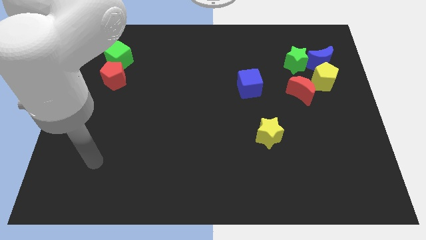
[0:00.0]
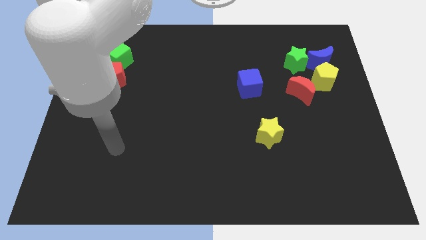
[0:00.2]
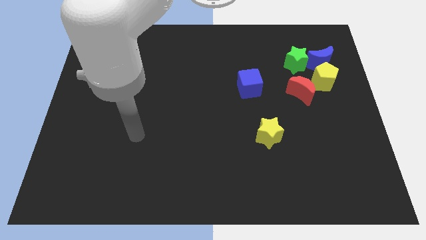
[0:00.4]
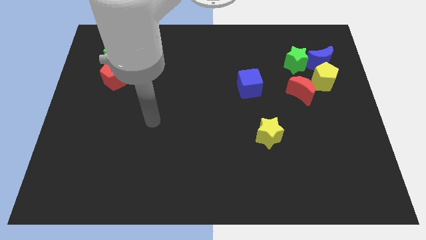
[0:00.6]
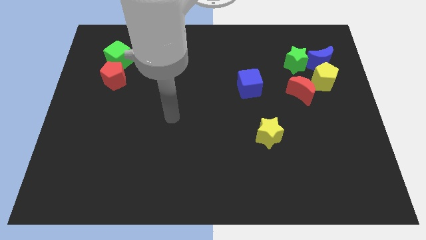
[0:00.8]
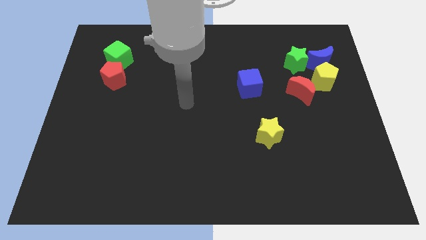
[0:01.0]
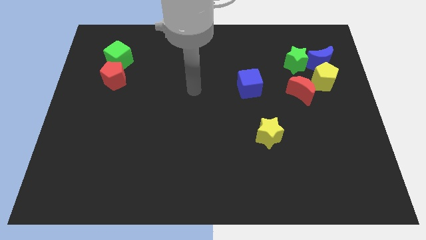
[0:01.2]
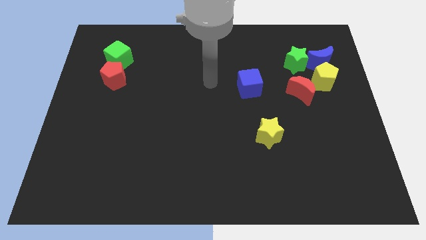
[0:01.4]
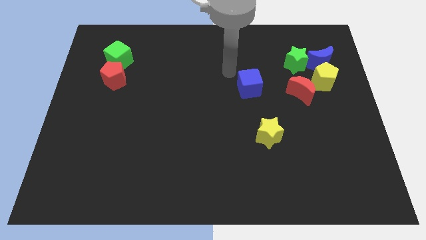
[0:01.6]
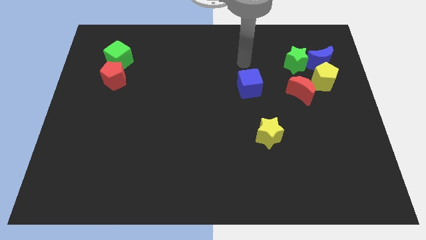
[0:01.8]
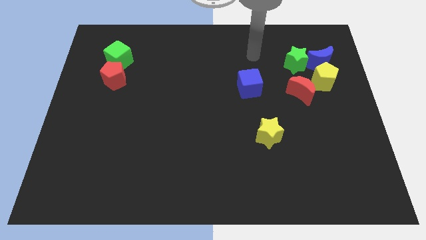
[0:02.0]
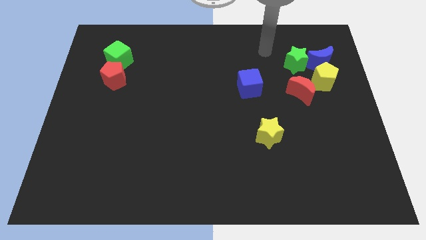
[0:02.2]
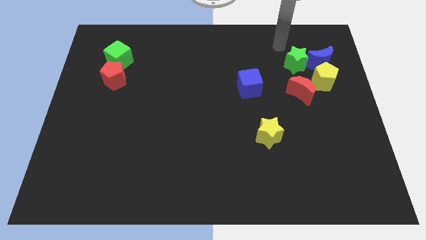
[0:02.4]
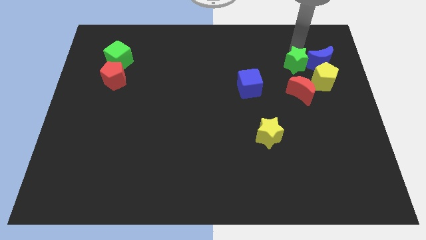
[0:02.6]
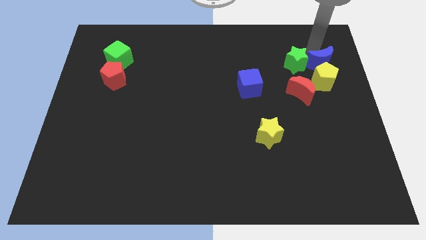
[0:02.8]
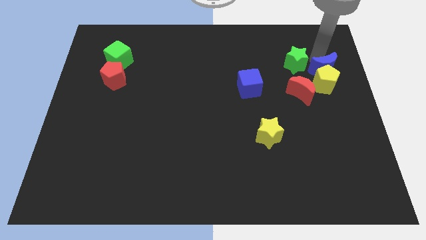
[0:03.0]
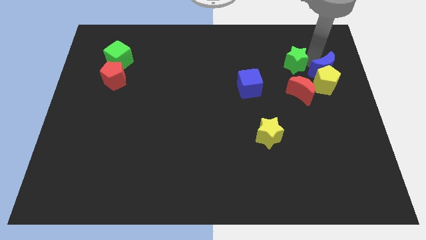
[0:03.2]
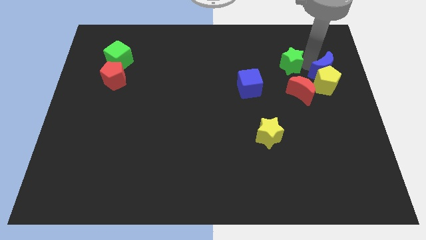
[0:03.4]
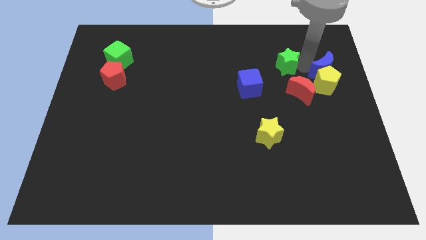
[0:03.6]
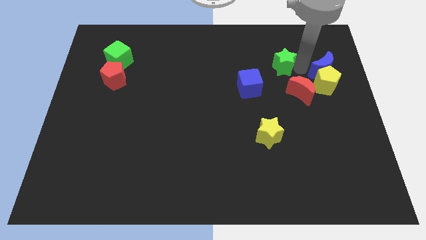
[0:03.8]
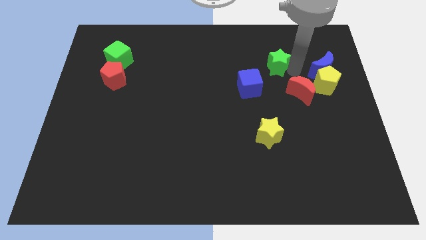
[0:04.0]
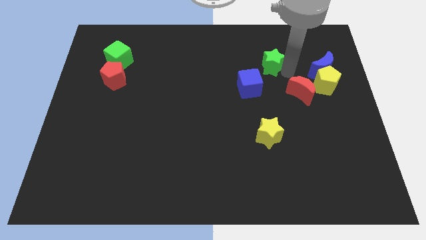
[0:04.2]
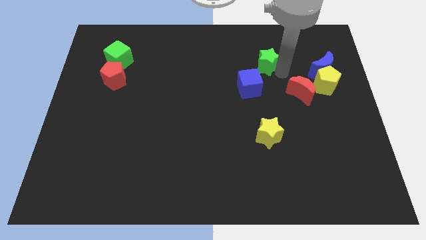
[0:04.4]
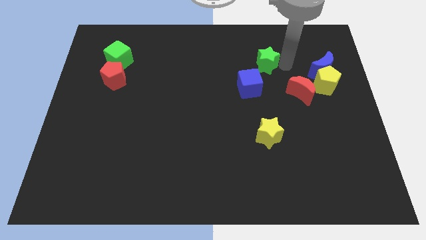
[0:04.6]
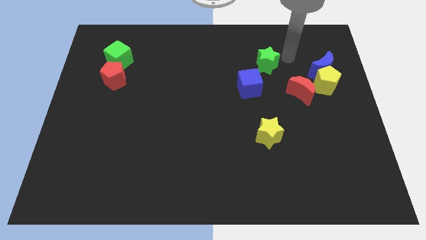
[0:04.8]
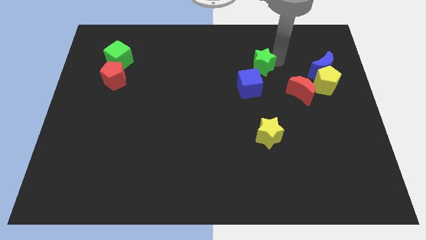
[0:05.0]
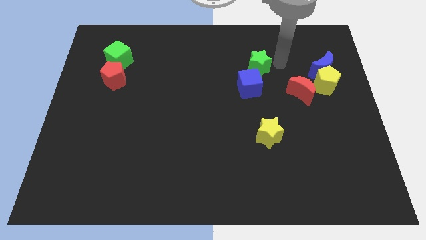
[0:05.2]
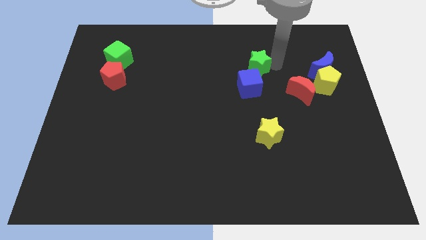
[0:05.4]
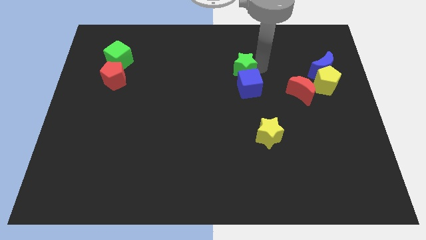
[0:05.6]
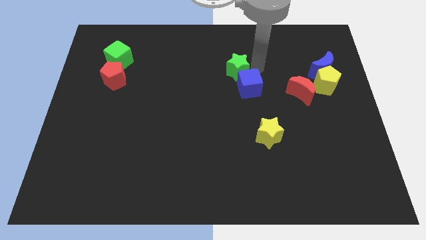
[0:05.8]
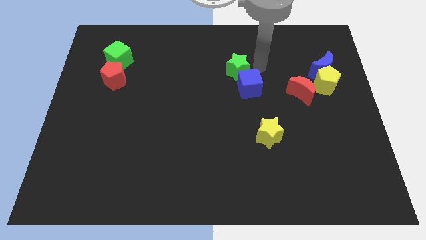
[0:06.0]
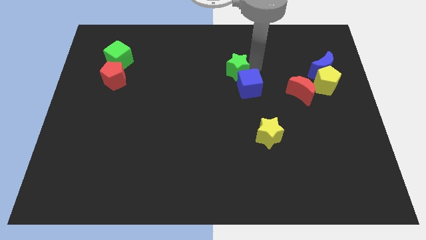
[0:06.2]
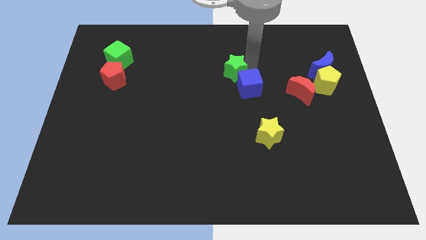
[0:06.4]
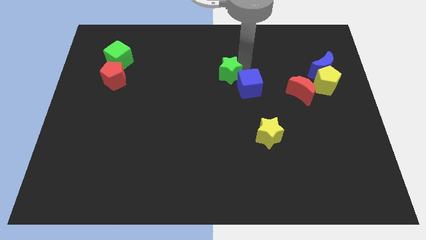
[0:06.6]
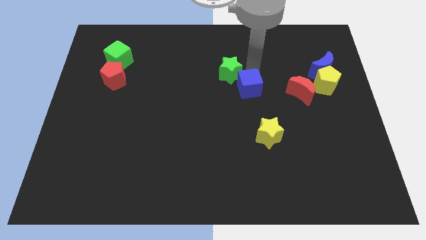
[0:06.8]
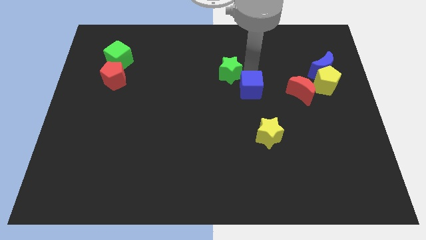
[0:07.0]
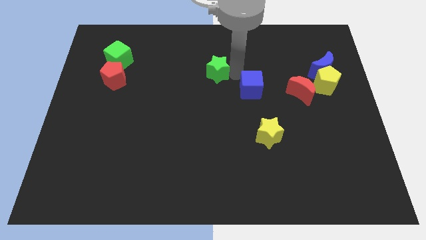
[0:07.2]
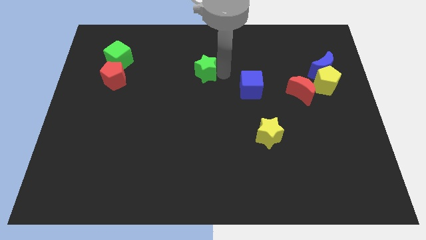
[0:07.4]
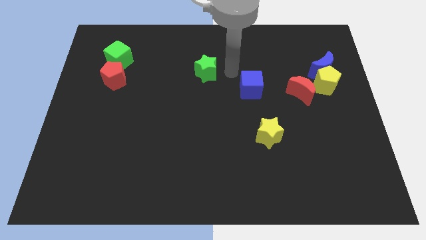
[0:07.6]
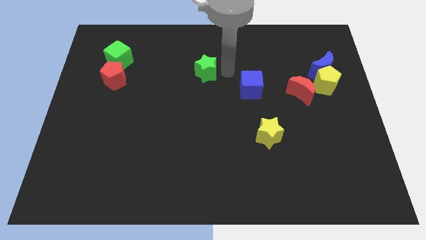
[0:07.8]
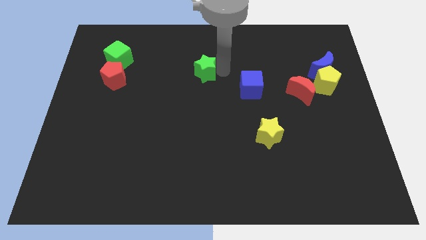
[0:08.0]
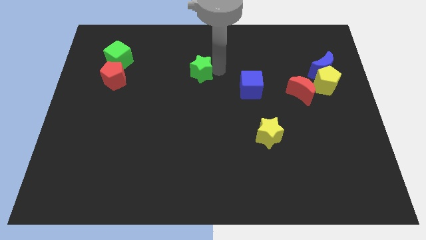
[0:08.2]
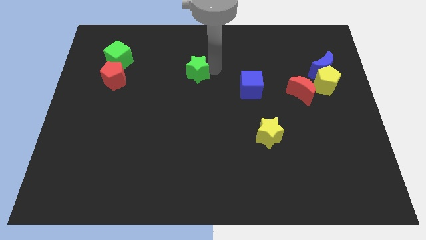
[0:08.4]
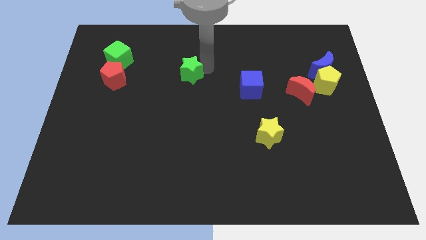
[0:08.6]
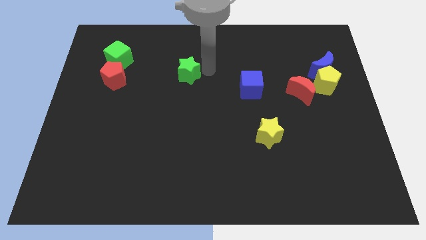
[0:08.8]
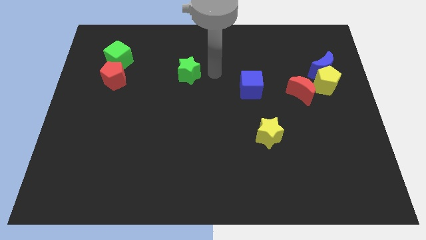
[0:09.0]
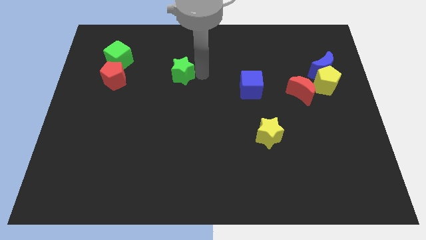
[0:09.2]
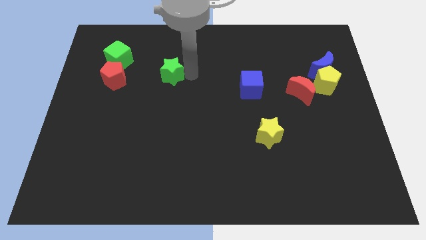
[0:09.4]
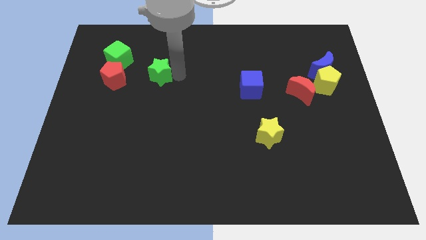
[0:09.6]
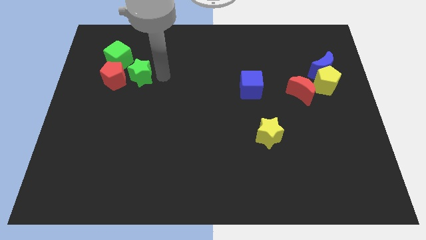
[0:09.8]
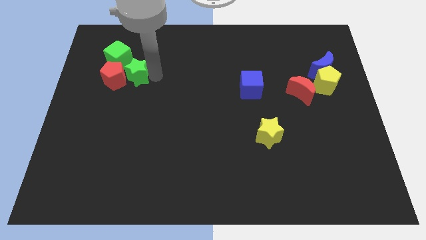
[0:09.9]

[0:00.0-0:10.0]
put the green star next to the red pentagon

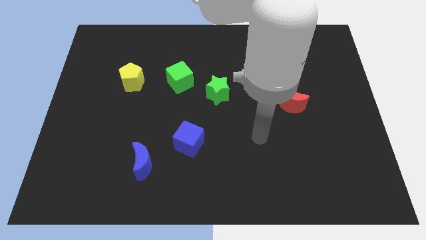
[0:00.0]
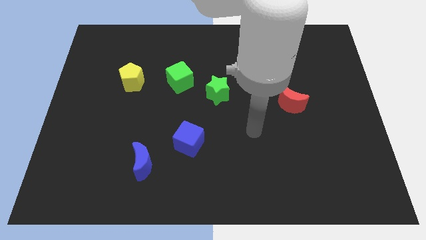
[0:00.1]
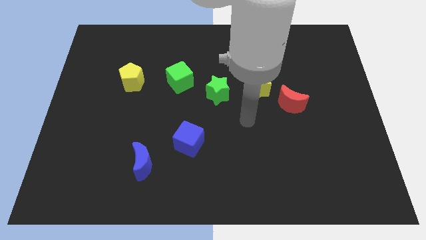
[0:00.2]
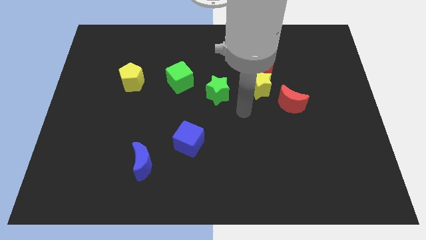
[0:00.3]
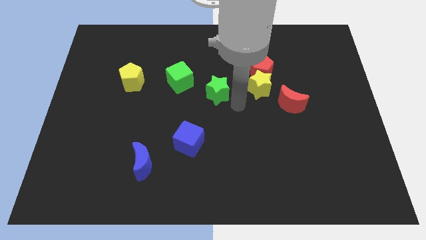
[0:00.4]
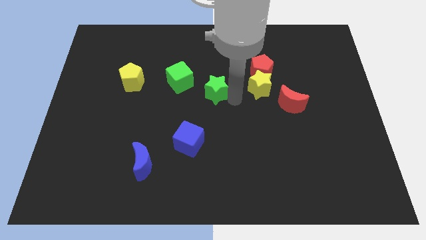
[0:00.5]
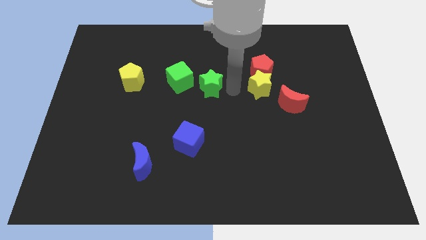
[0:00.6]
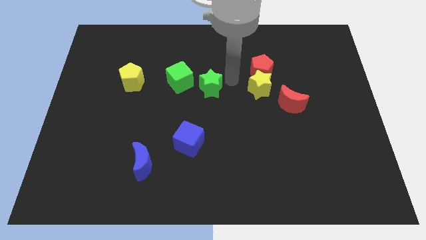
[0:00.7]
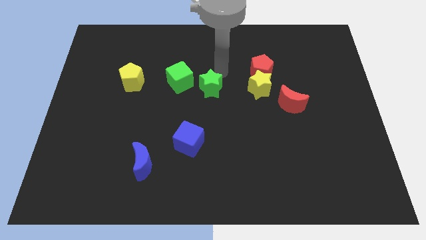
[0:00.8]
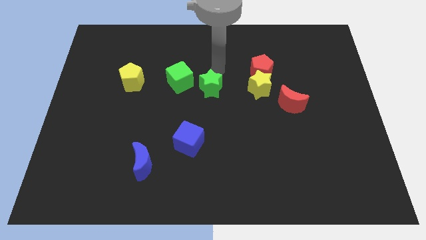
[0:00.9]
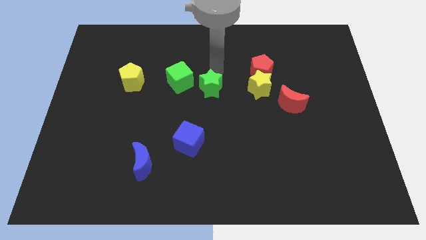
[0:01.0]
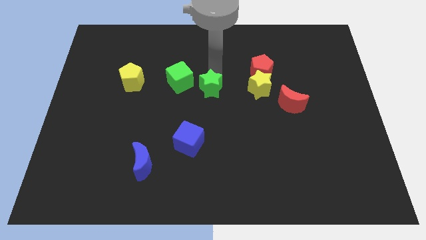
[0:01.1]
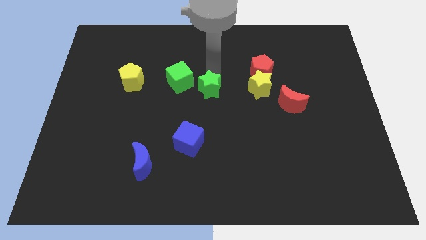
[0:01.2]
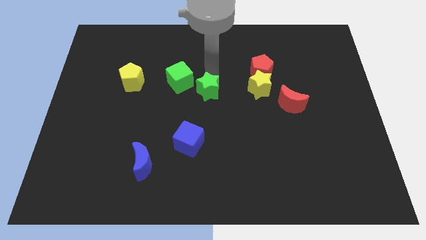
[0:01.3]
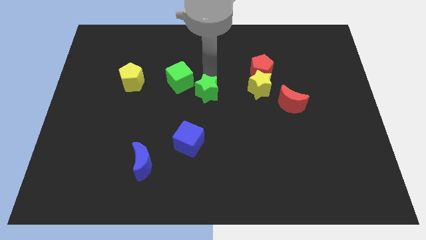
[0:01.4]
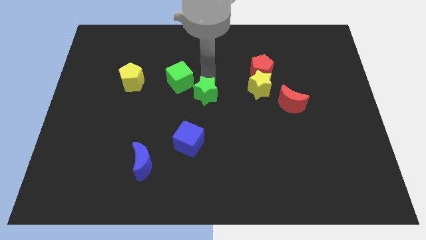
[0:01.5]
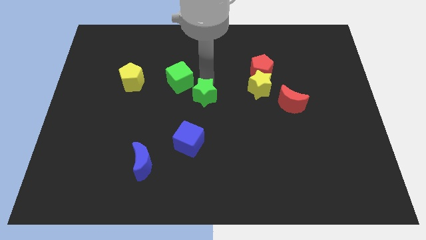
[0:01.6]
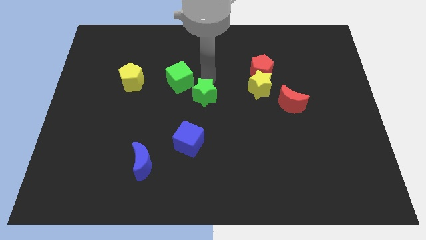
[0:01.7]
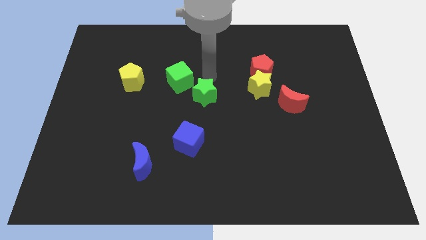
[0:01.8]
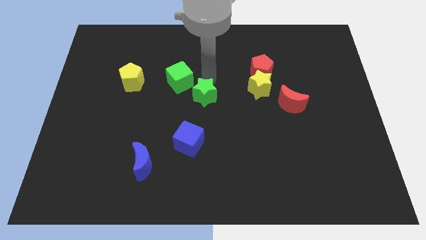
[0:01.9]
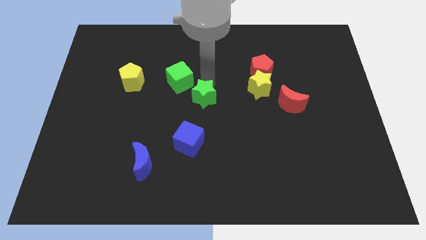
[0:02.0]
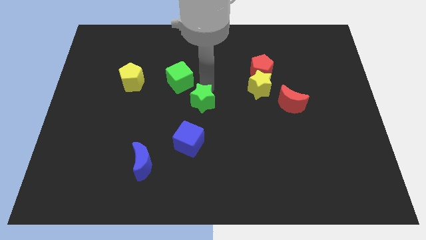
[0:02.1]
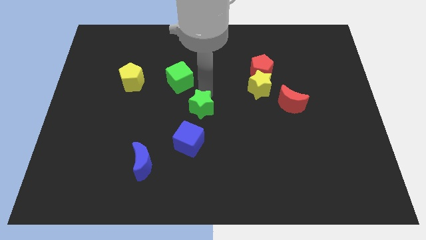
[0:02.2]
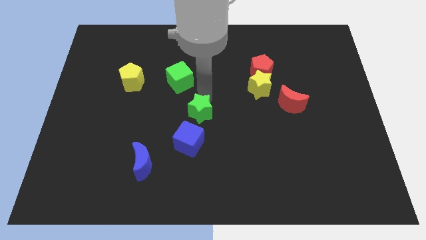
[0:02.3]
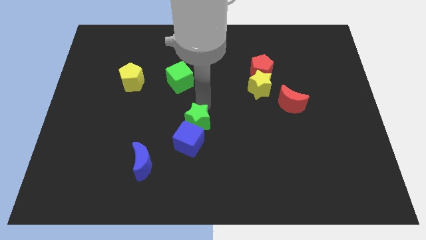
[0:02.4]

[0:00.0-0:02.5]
slide the green star next to the blue cube
